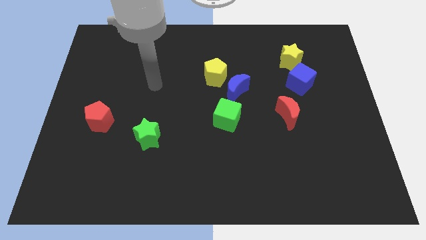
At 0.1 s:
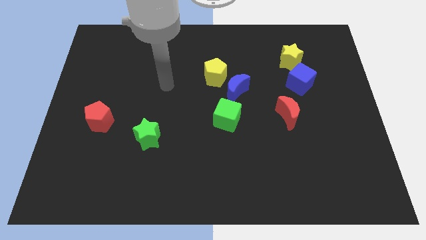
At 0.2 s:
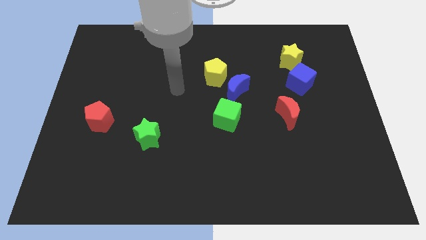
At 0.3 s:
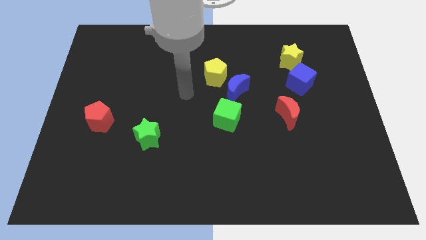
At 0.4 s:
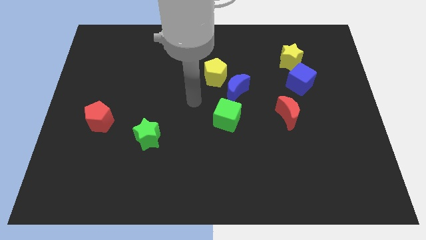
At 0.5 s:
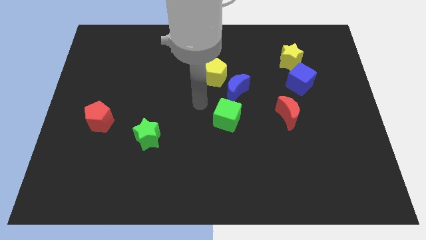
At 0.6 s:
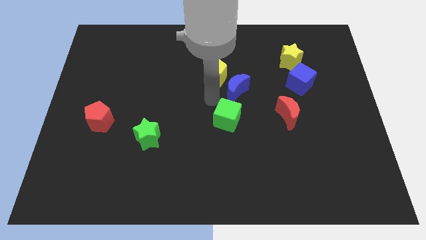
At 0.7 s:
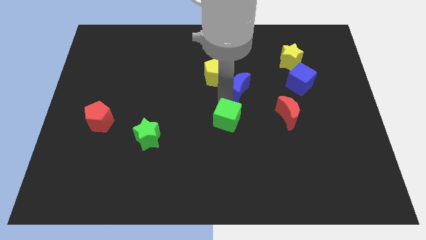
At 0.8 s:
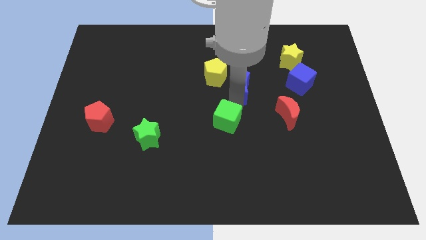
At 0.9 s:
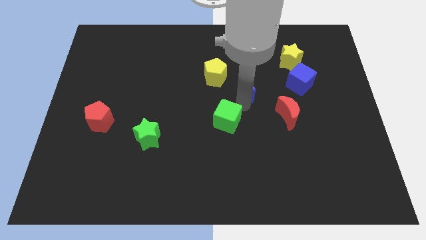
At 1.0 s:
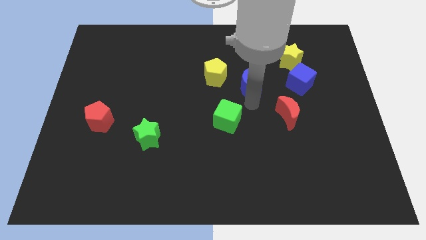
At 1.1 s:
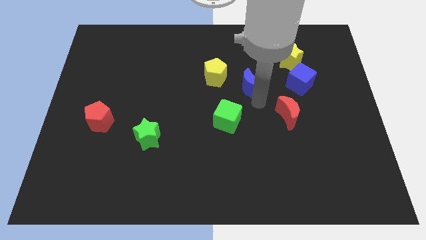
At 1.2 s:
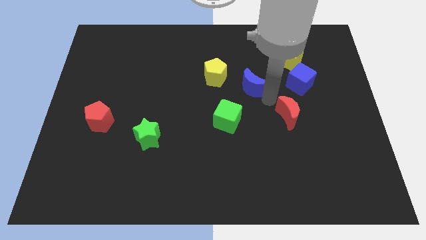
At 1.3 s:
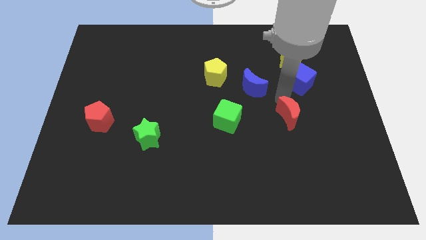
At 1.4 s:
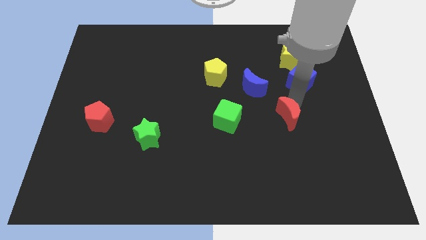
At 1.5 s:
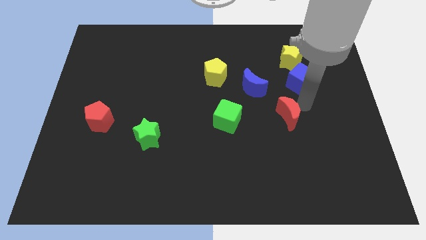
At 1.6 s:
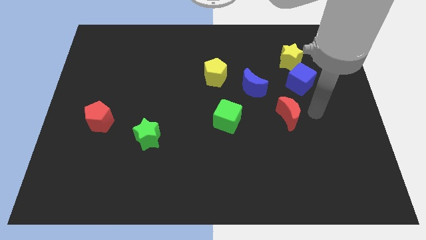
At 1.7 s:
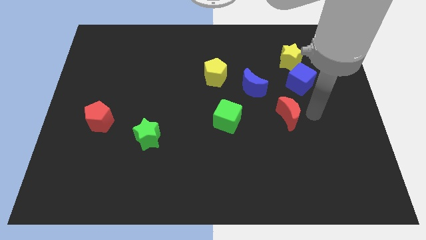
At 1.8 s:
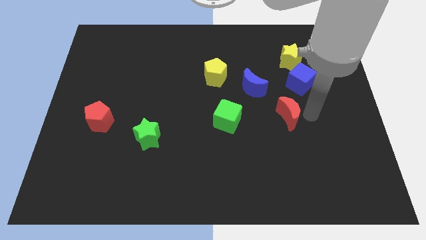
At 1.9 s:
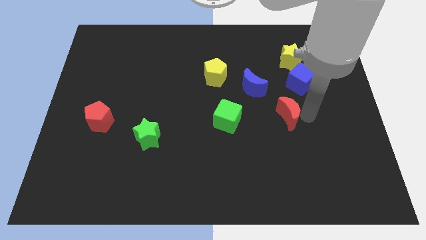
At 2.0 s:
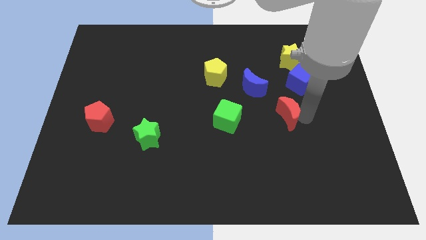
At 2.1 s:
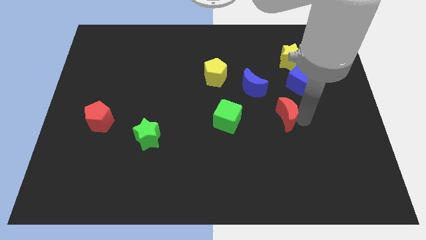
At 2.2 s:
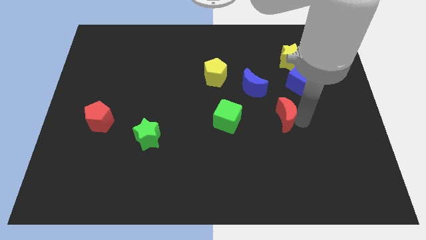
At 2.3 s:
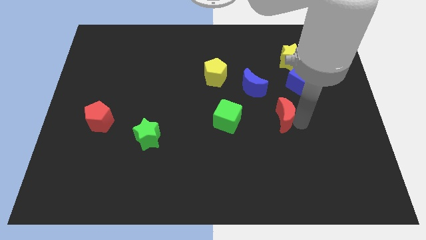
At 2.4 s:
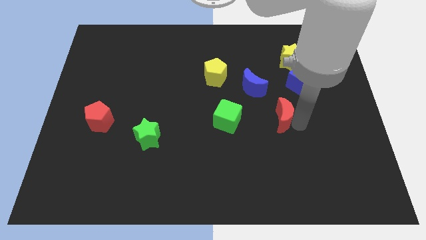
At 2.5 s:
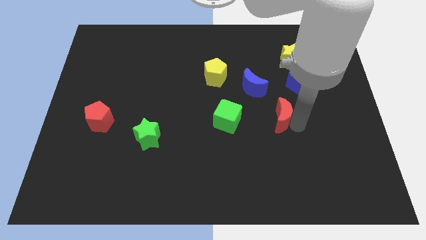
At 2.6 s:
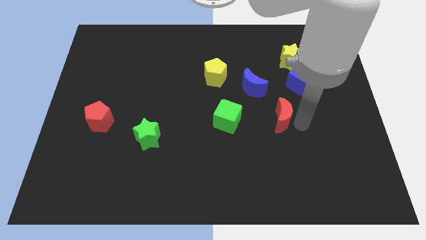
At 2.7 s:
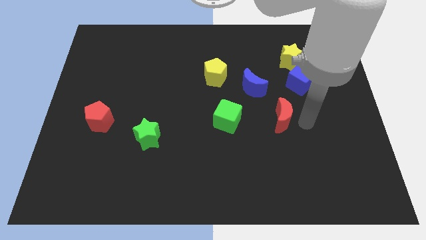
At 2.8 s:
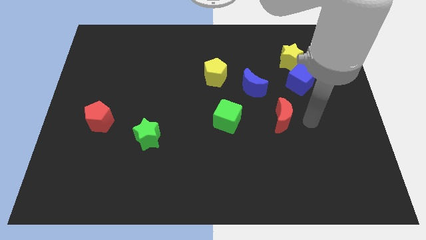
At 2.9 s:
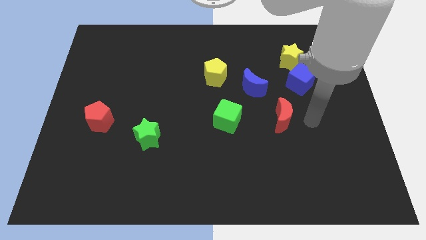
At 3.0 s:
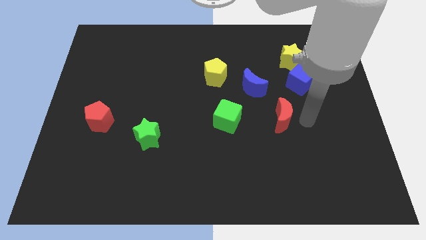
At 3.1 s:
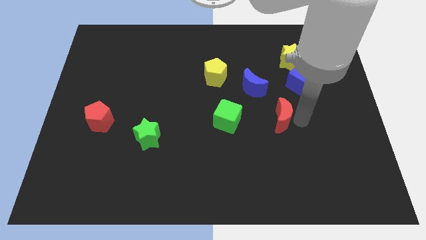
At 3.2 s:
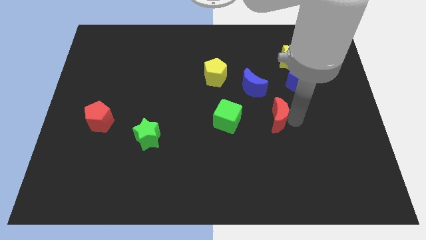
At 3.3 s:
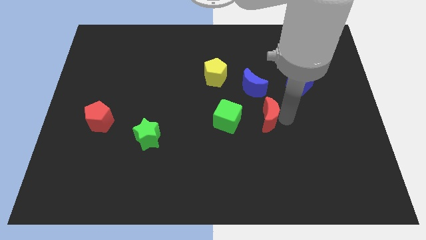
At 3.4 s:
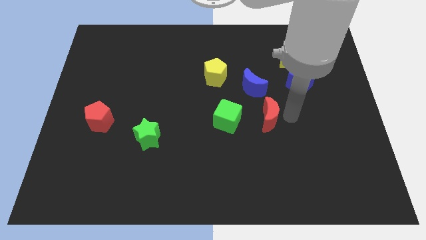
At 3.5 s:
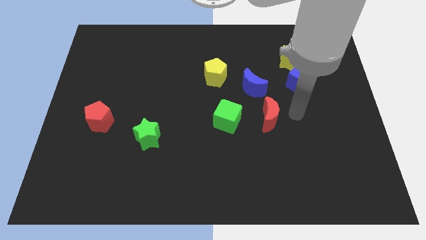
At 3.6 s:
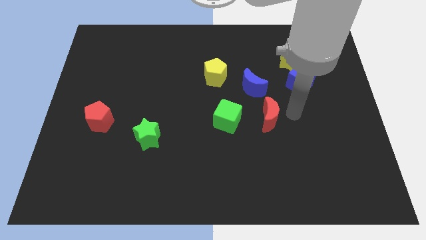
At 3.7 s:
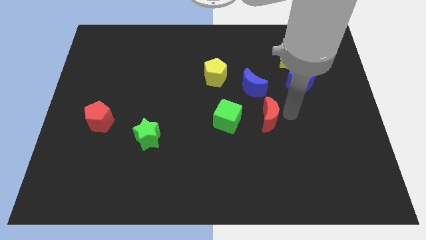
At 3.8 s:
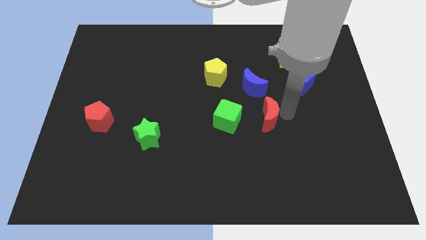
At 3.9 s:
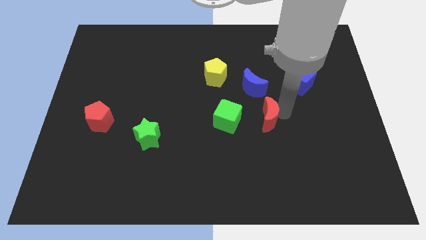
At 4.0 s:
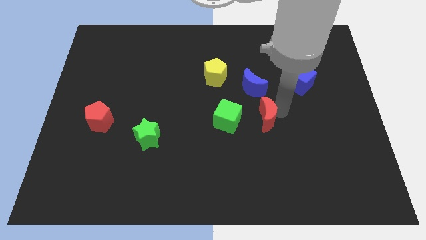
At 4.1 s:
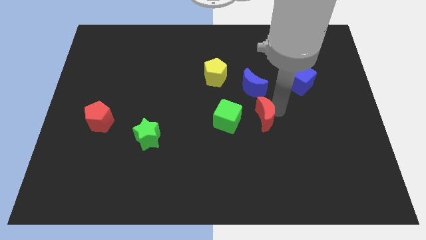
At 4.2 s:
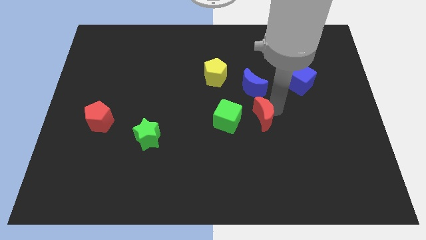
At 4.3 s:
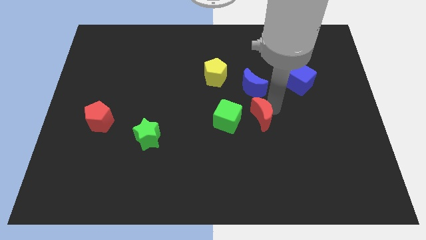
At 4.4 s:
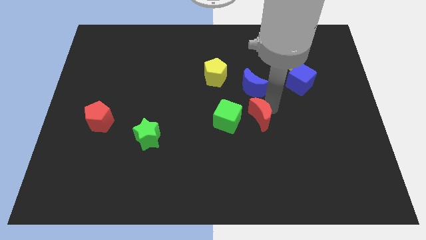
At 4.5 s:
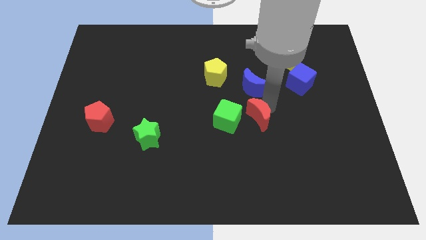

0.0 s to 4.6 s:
slide the red moon to the left a little bit

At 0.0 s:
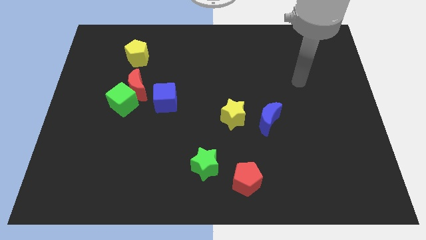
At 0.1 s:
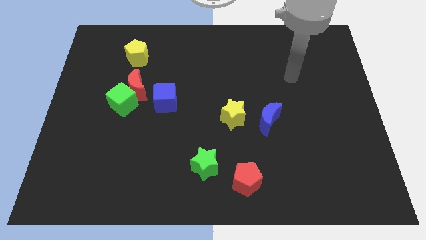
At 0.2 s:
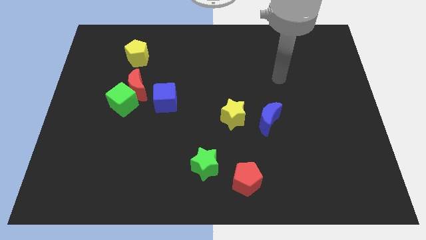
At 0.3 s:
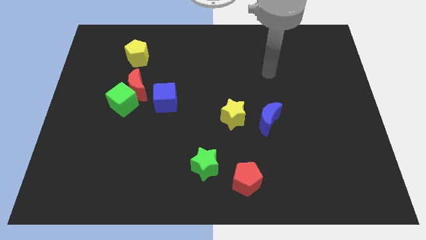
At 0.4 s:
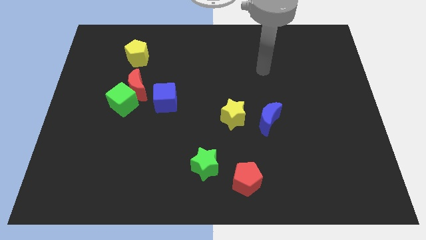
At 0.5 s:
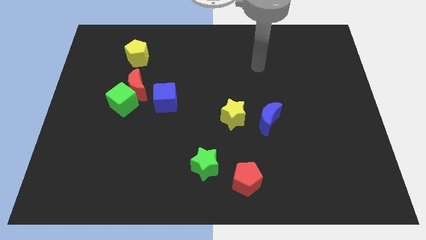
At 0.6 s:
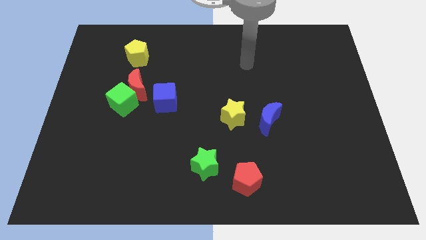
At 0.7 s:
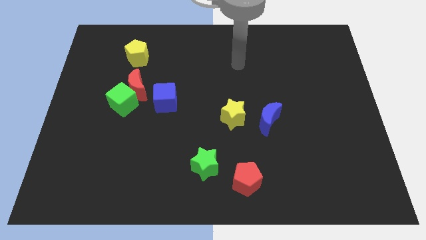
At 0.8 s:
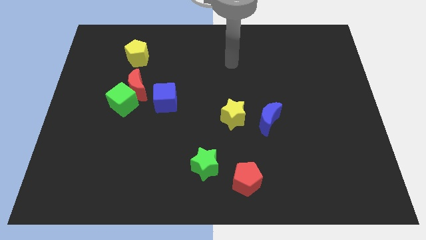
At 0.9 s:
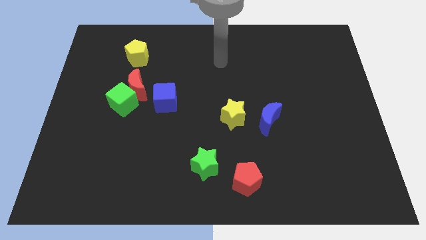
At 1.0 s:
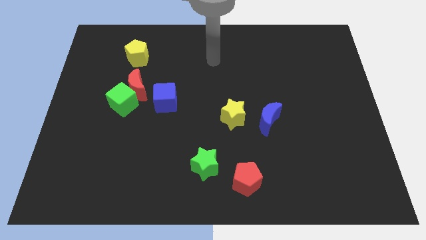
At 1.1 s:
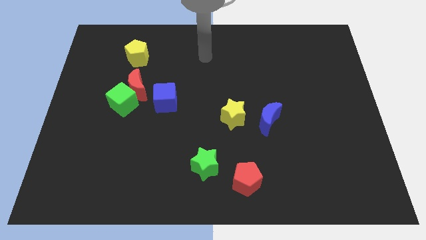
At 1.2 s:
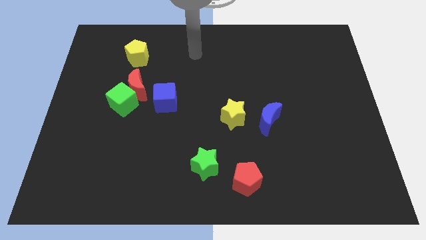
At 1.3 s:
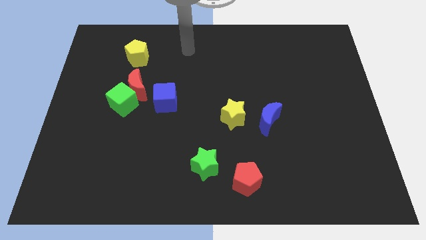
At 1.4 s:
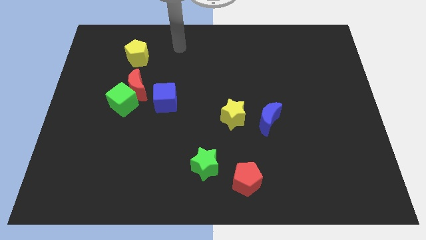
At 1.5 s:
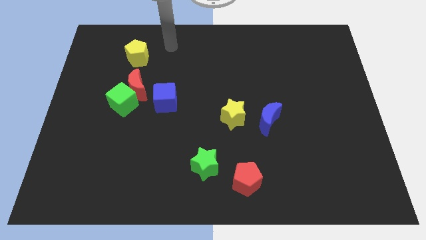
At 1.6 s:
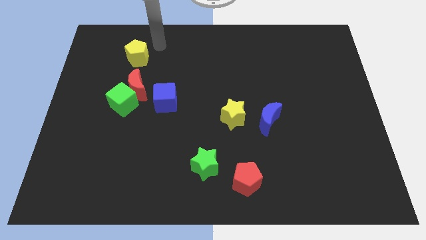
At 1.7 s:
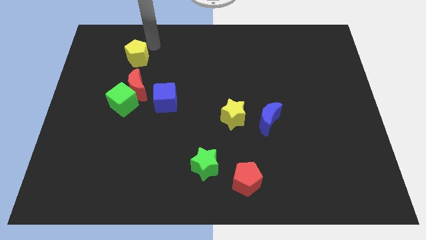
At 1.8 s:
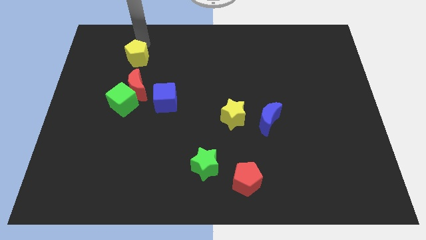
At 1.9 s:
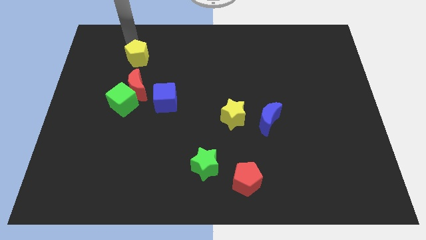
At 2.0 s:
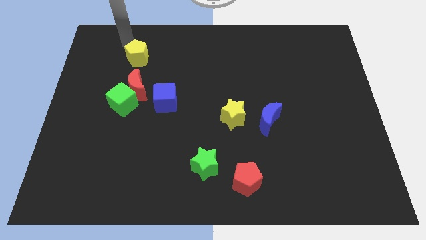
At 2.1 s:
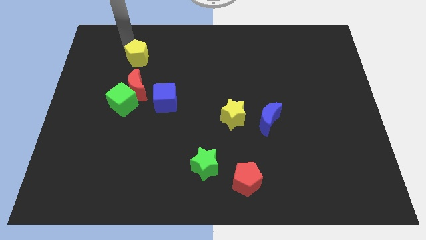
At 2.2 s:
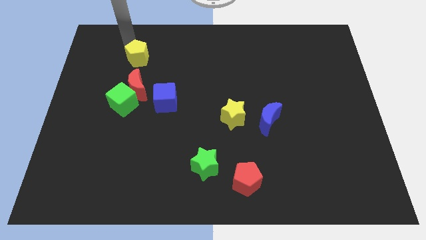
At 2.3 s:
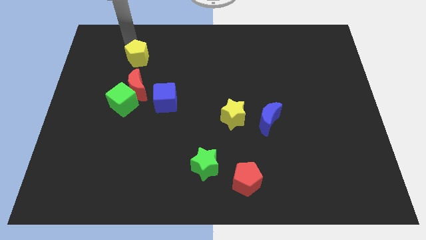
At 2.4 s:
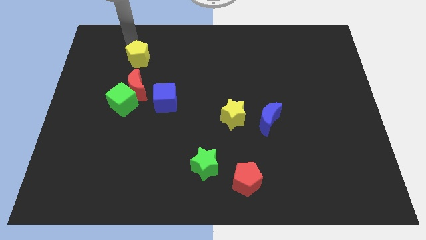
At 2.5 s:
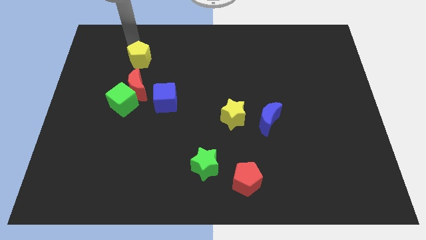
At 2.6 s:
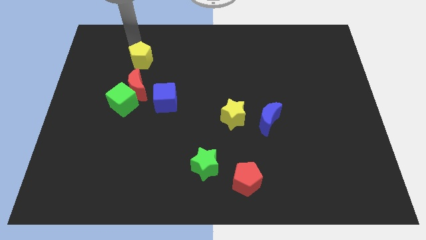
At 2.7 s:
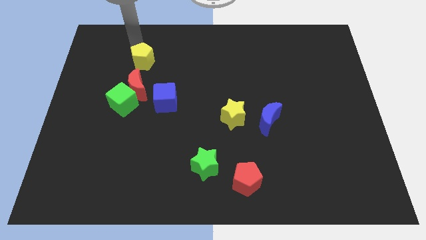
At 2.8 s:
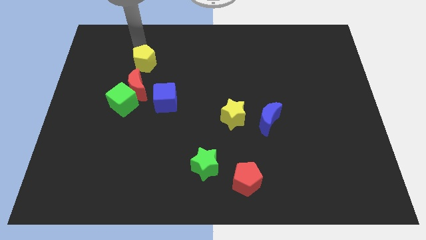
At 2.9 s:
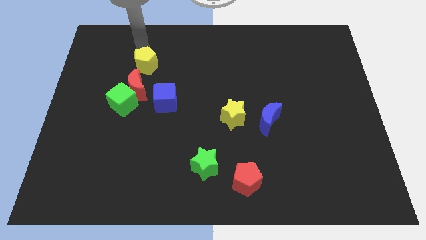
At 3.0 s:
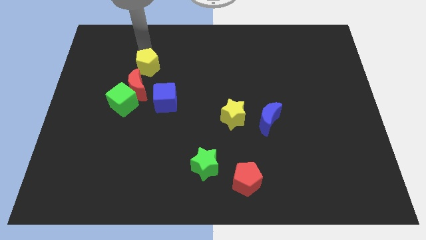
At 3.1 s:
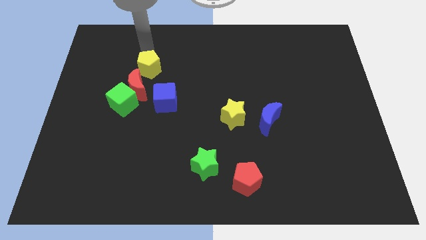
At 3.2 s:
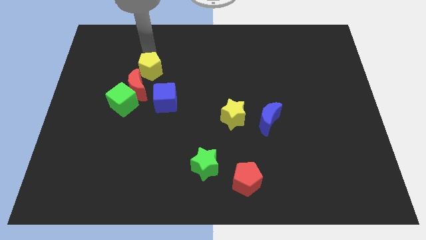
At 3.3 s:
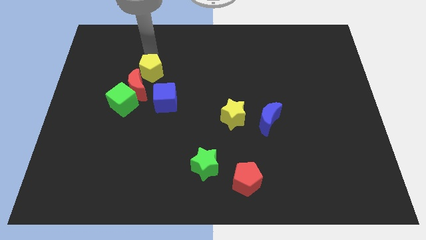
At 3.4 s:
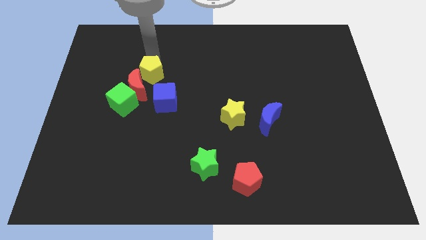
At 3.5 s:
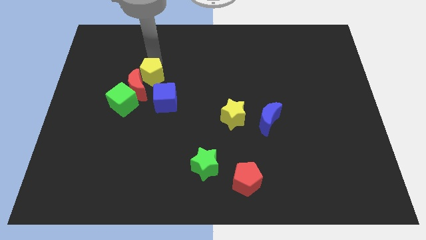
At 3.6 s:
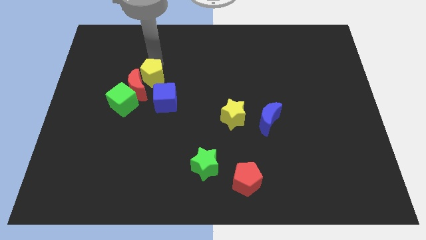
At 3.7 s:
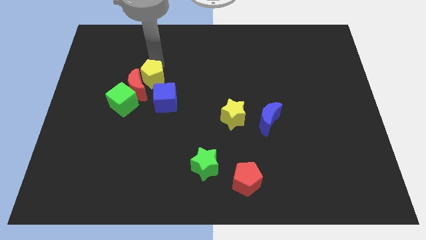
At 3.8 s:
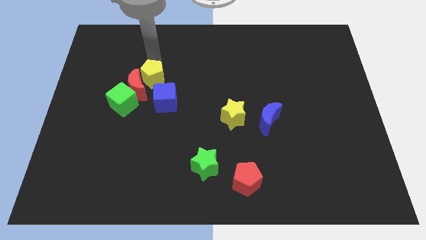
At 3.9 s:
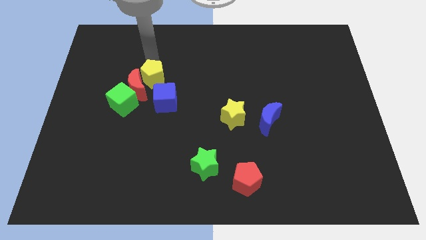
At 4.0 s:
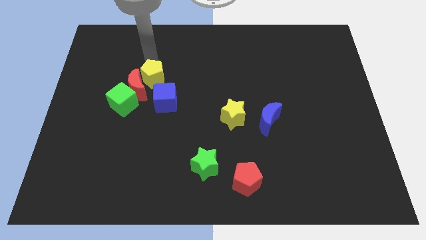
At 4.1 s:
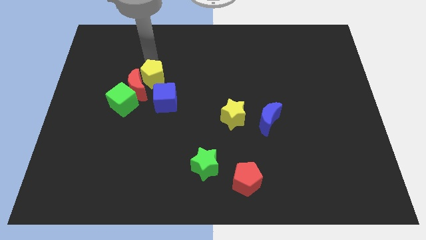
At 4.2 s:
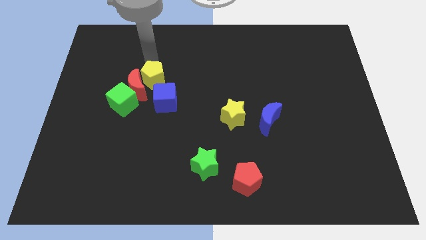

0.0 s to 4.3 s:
move the yellow pentagon somewhat downwards
